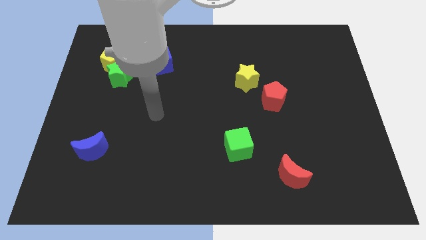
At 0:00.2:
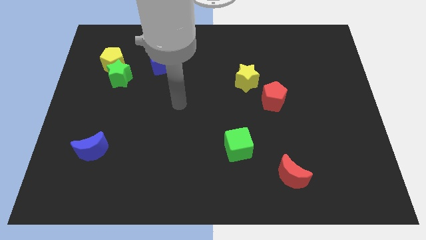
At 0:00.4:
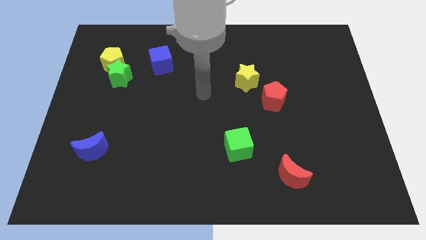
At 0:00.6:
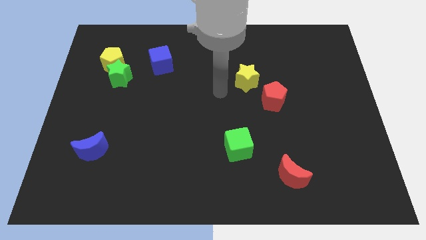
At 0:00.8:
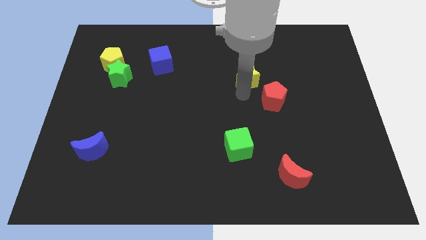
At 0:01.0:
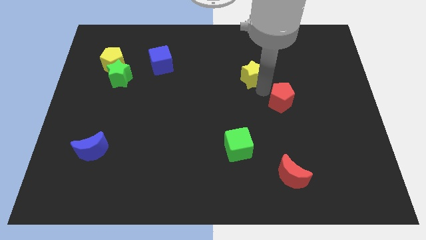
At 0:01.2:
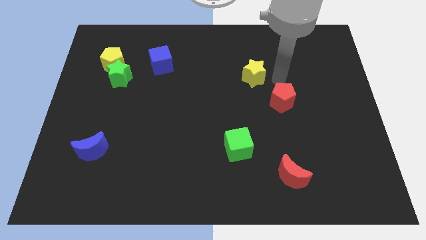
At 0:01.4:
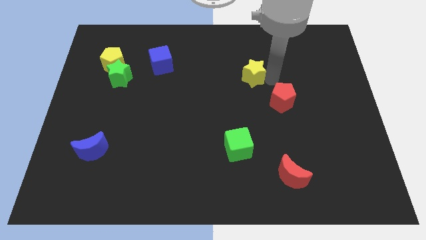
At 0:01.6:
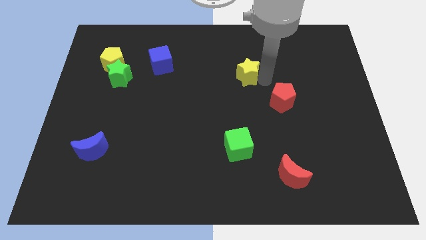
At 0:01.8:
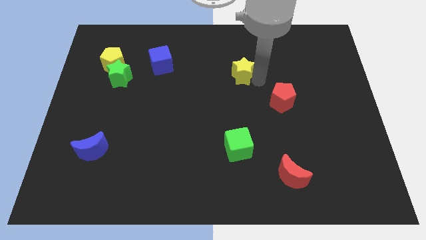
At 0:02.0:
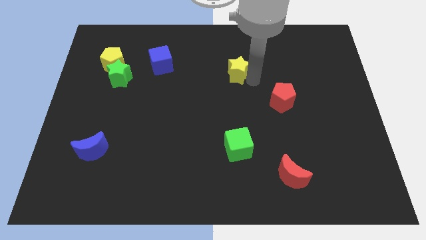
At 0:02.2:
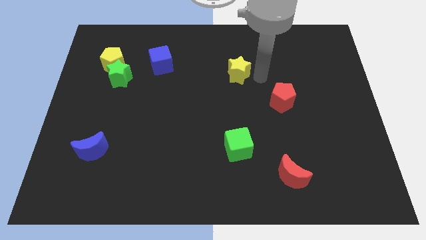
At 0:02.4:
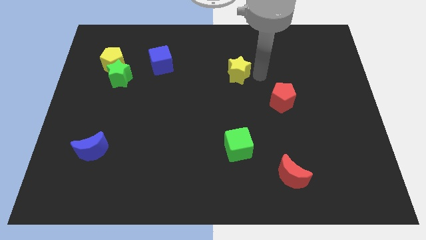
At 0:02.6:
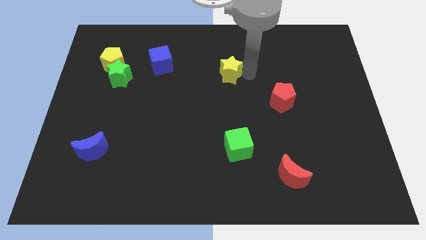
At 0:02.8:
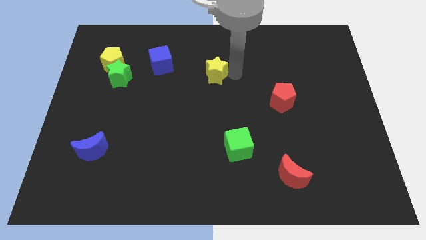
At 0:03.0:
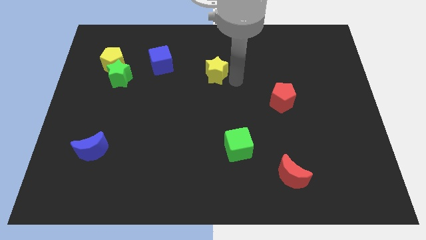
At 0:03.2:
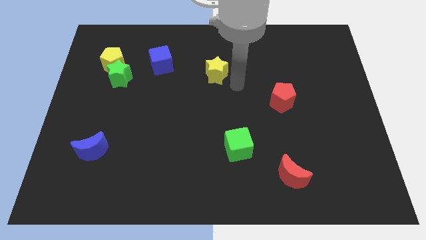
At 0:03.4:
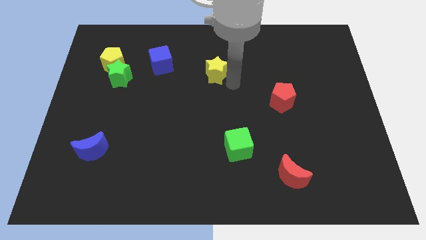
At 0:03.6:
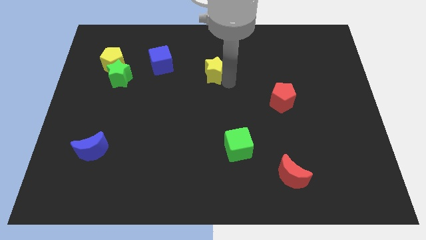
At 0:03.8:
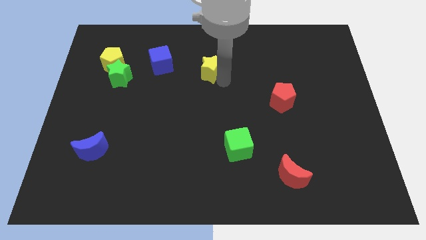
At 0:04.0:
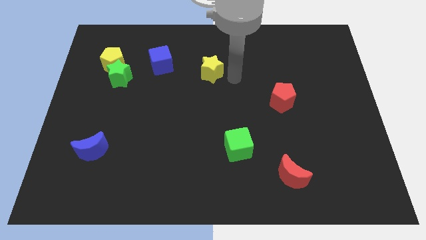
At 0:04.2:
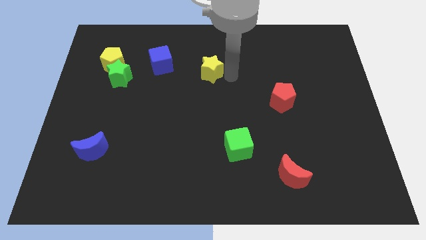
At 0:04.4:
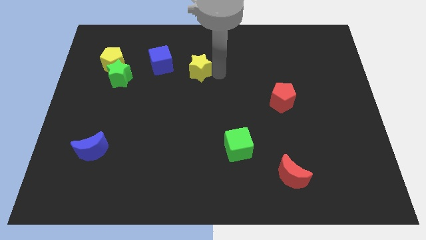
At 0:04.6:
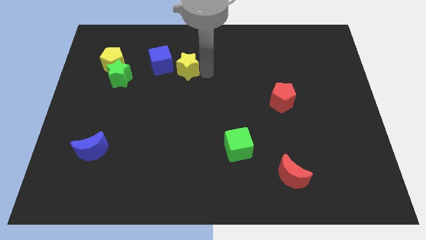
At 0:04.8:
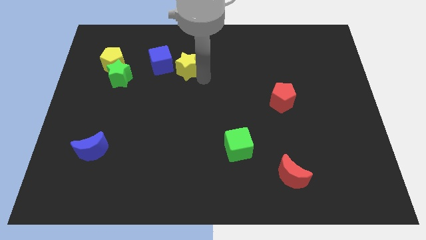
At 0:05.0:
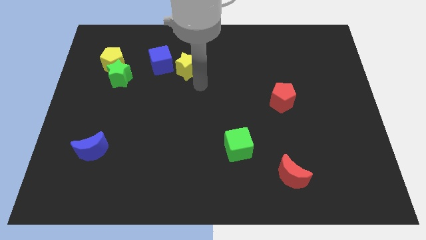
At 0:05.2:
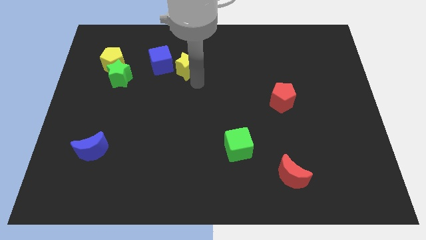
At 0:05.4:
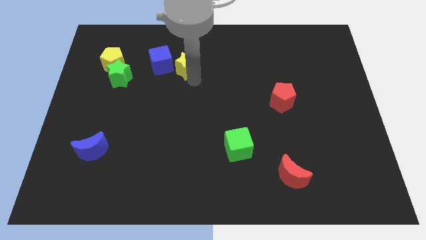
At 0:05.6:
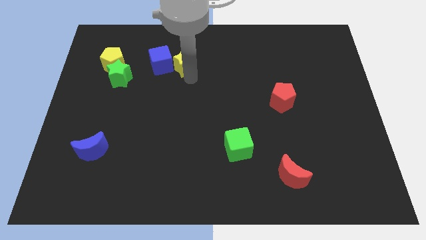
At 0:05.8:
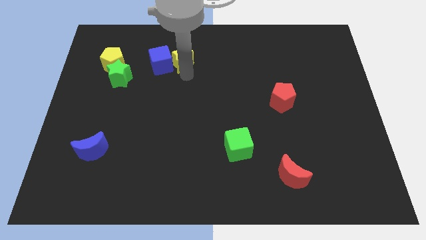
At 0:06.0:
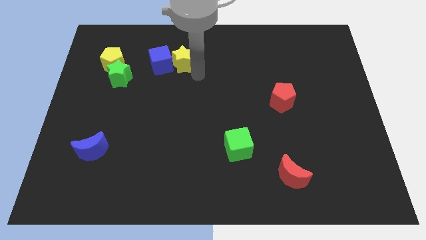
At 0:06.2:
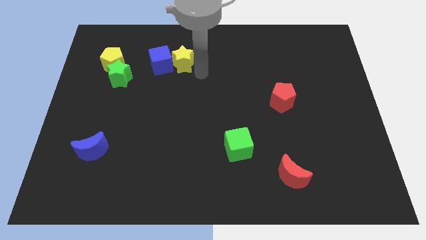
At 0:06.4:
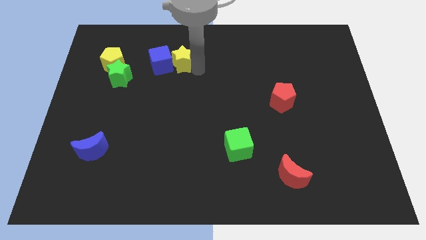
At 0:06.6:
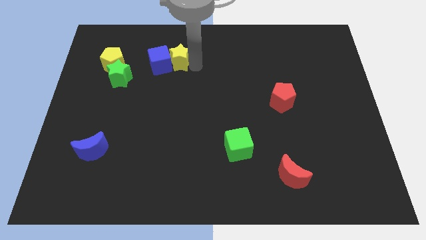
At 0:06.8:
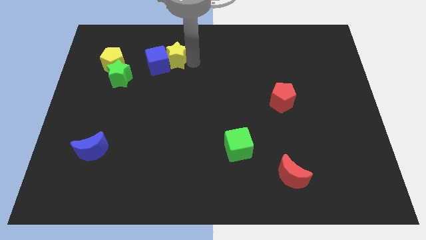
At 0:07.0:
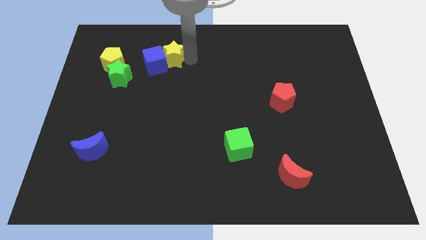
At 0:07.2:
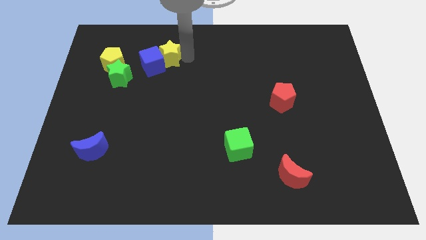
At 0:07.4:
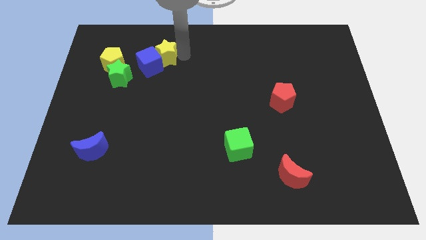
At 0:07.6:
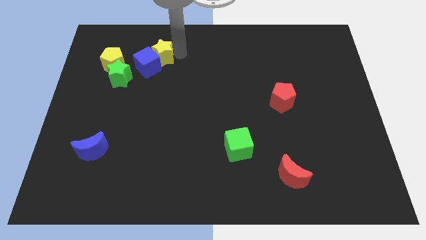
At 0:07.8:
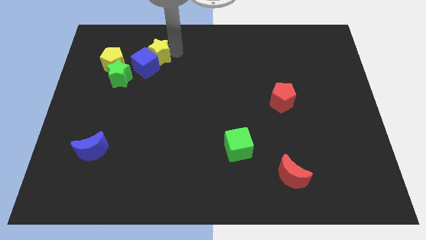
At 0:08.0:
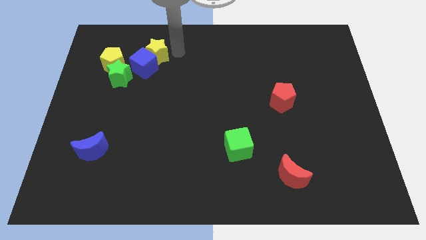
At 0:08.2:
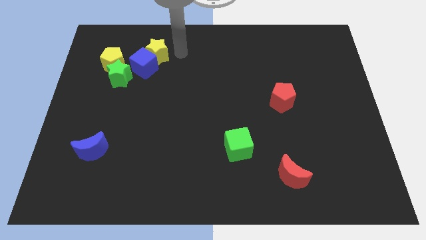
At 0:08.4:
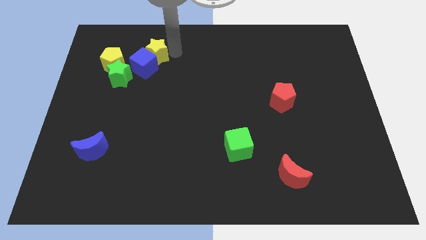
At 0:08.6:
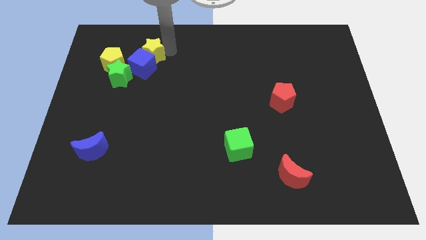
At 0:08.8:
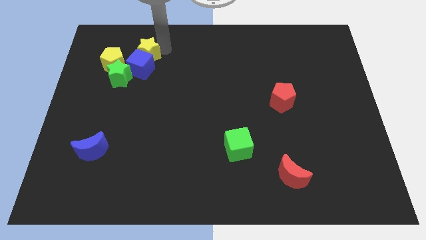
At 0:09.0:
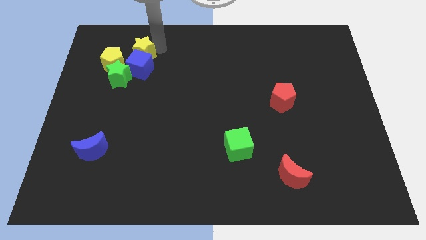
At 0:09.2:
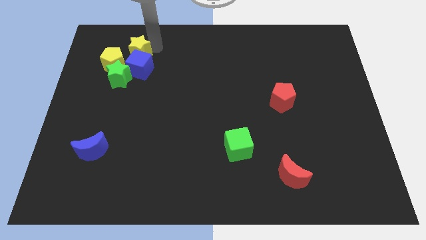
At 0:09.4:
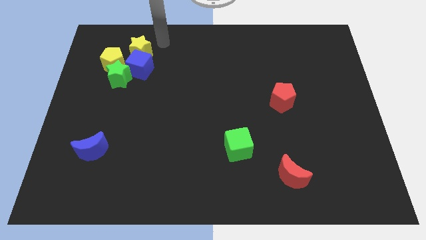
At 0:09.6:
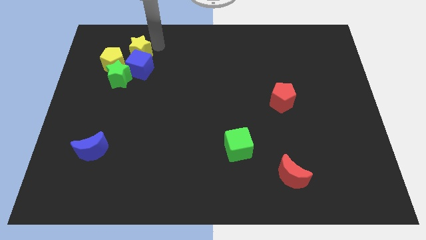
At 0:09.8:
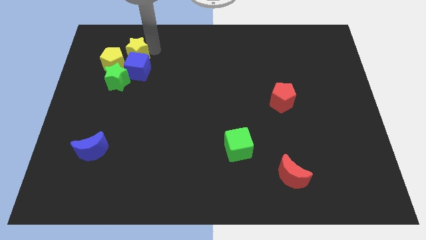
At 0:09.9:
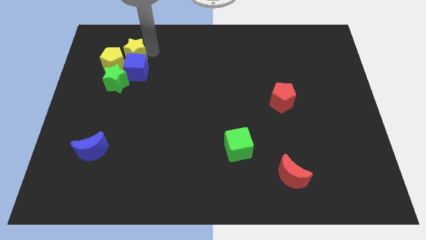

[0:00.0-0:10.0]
put the yellow star next to the yellow pentagon

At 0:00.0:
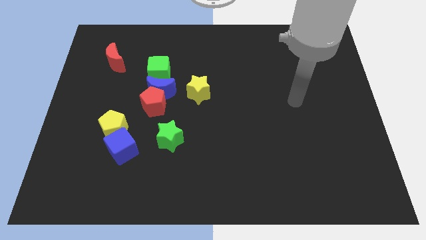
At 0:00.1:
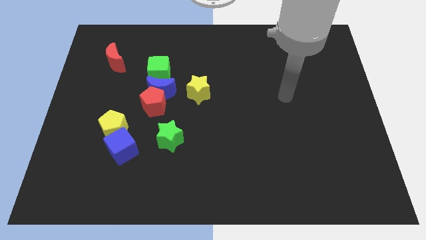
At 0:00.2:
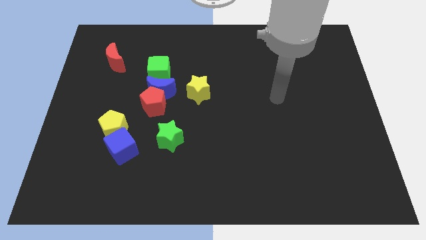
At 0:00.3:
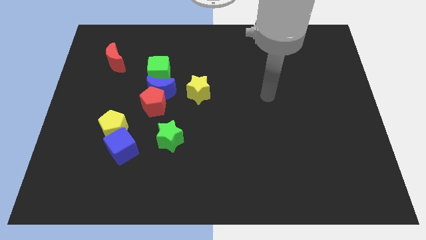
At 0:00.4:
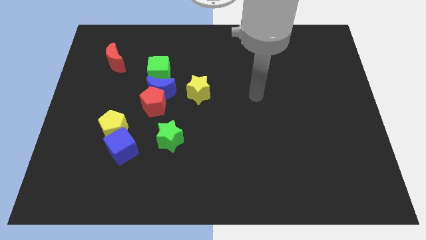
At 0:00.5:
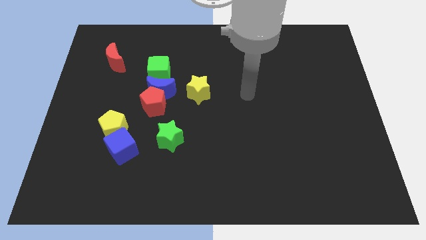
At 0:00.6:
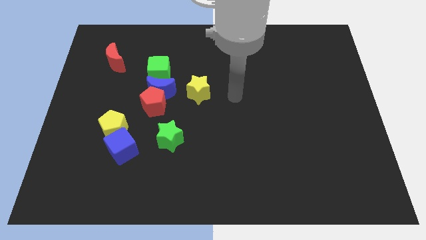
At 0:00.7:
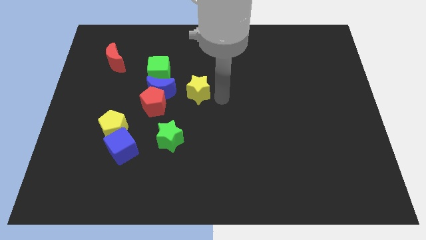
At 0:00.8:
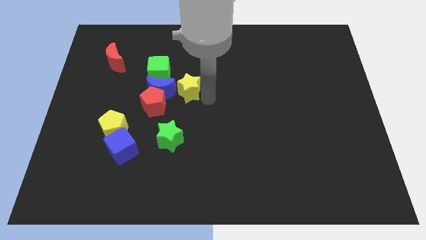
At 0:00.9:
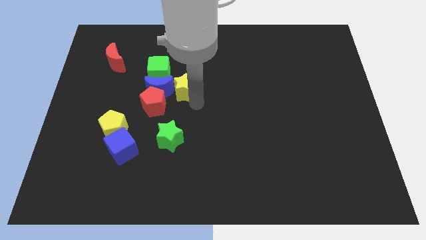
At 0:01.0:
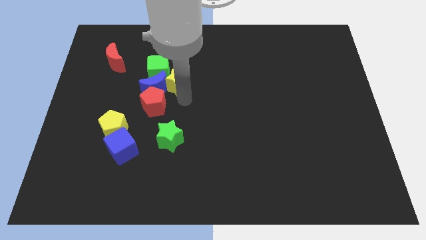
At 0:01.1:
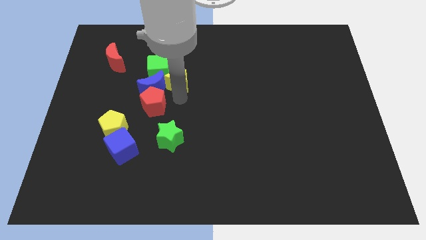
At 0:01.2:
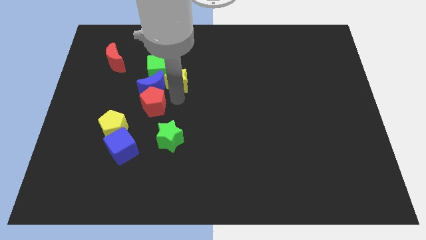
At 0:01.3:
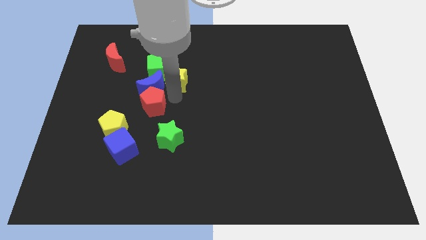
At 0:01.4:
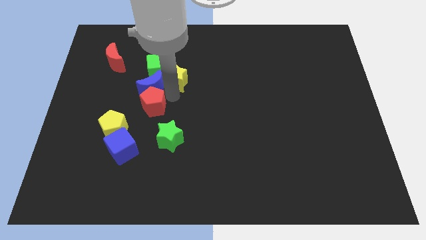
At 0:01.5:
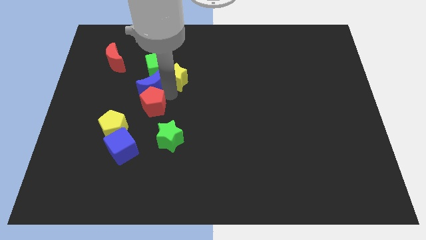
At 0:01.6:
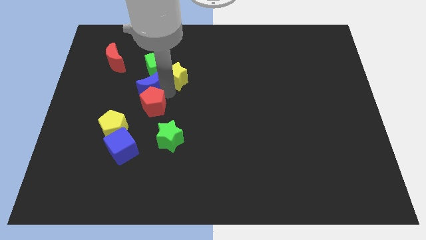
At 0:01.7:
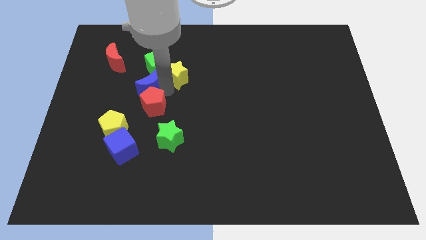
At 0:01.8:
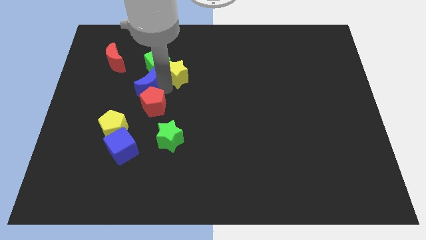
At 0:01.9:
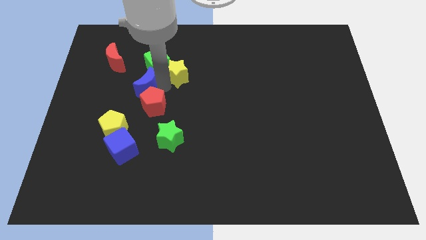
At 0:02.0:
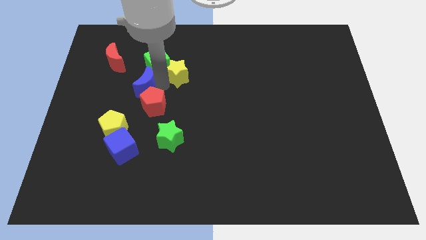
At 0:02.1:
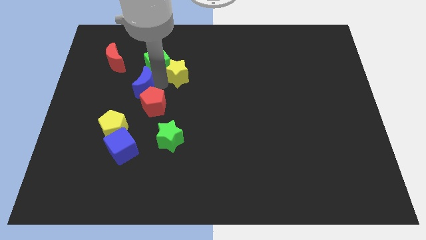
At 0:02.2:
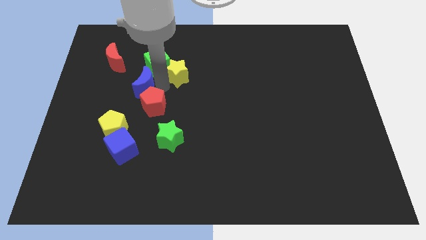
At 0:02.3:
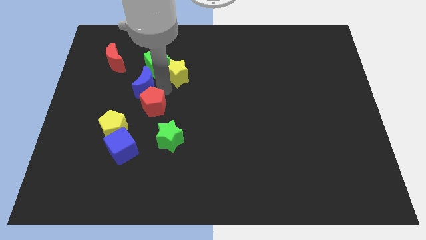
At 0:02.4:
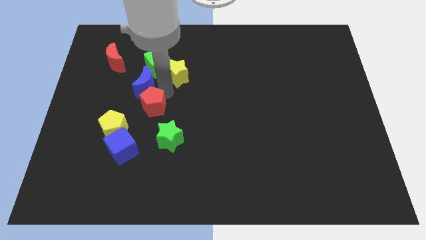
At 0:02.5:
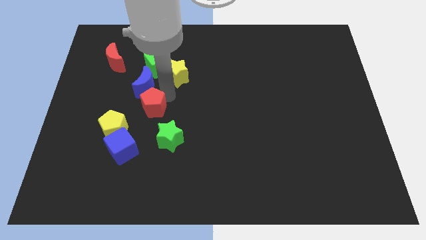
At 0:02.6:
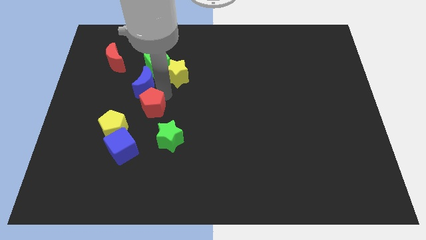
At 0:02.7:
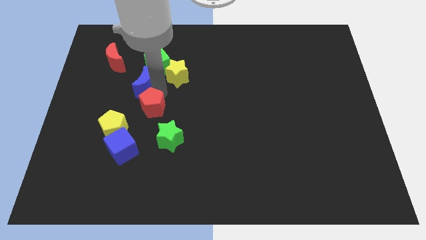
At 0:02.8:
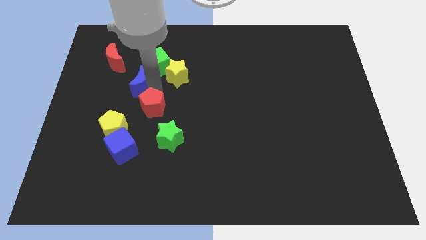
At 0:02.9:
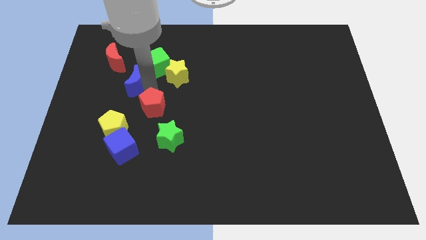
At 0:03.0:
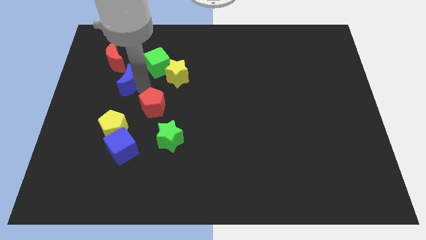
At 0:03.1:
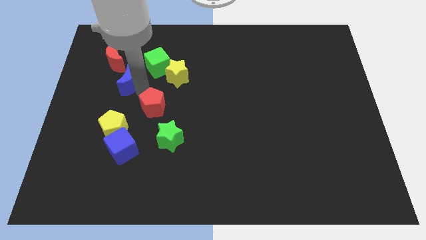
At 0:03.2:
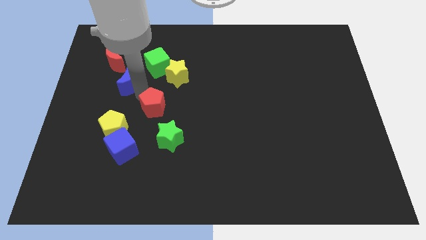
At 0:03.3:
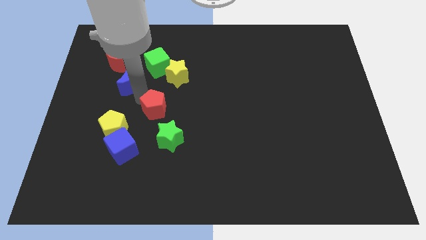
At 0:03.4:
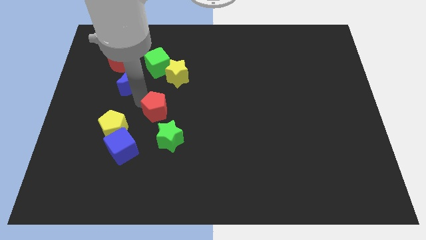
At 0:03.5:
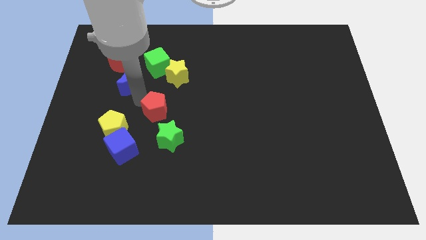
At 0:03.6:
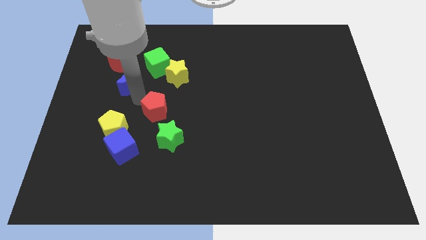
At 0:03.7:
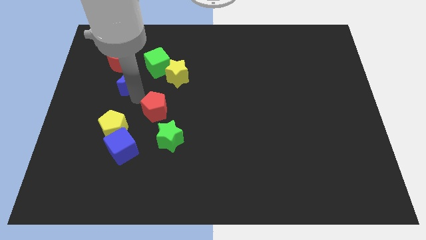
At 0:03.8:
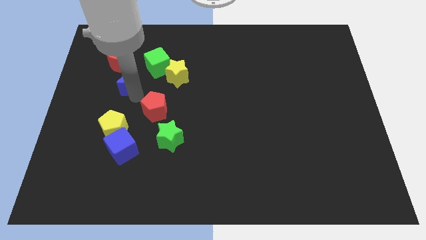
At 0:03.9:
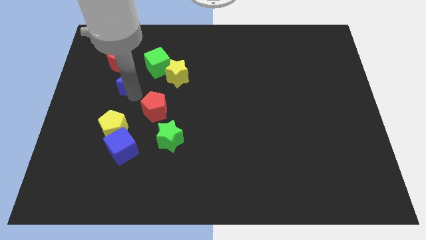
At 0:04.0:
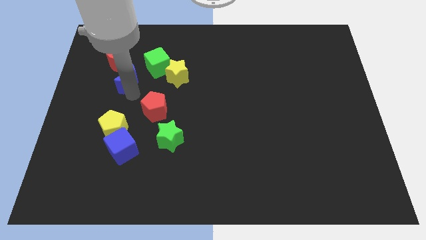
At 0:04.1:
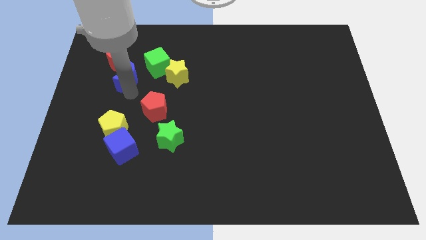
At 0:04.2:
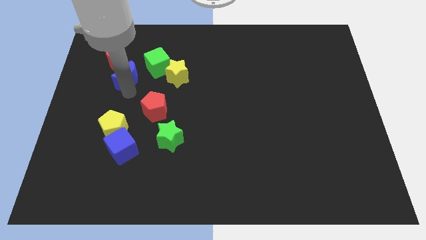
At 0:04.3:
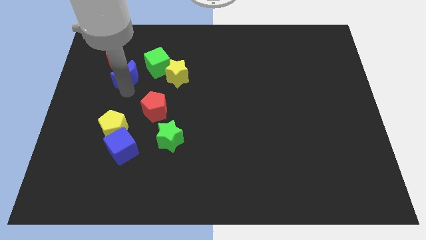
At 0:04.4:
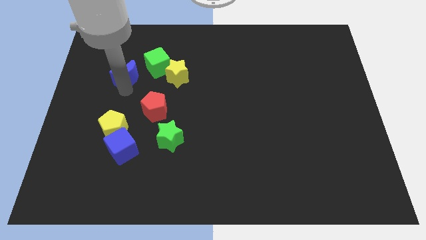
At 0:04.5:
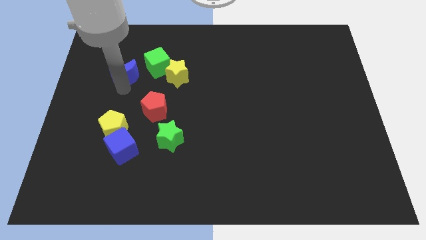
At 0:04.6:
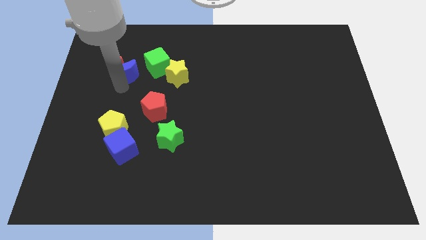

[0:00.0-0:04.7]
move the blue moon close to the red moon
